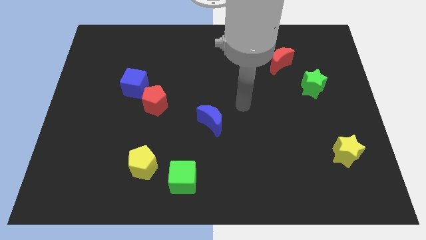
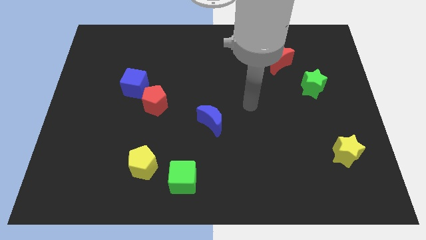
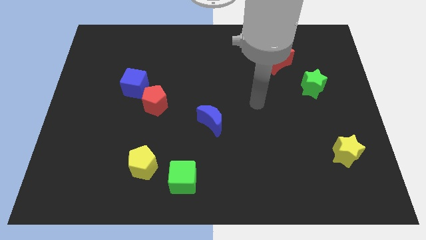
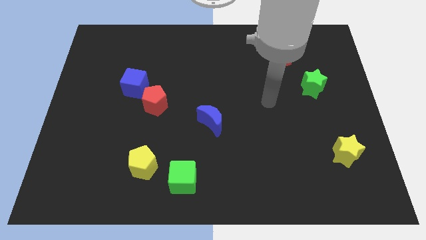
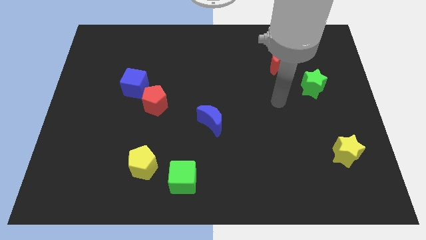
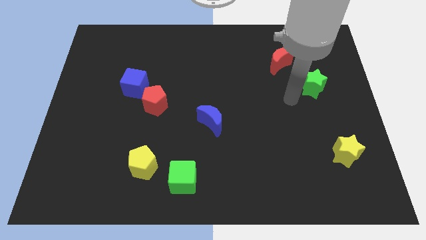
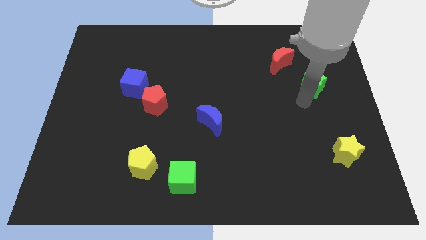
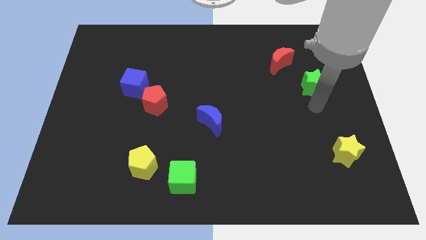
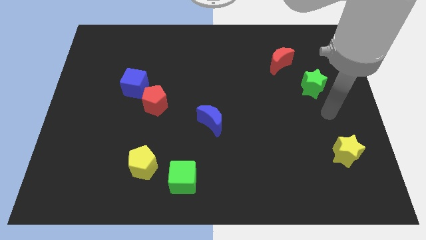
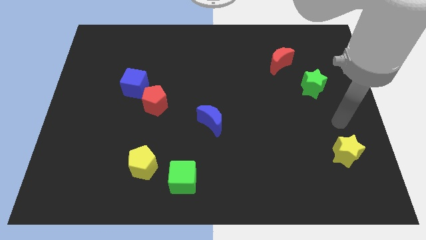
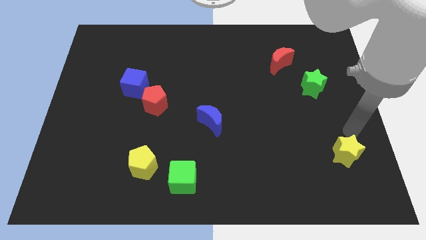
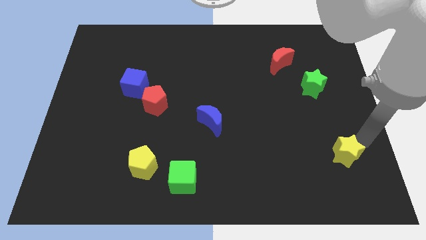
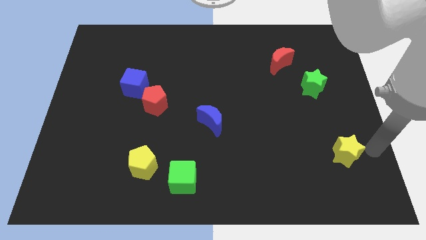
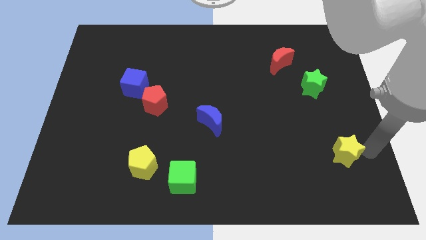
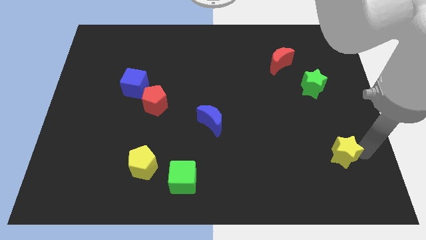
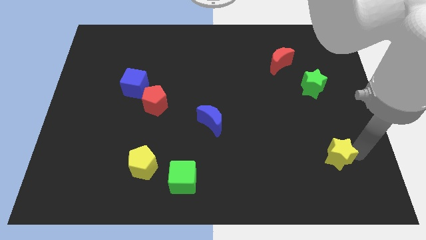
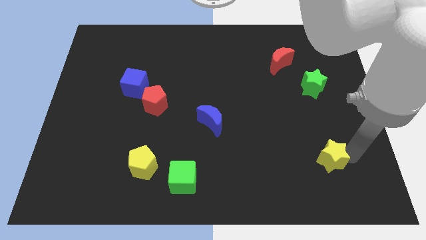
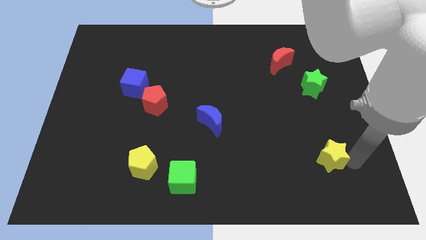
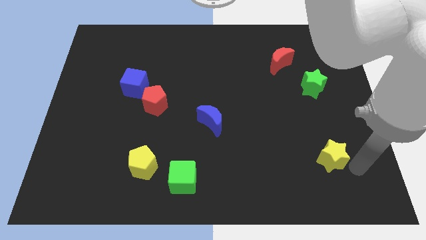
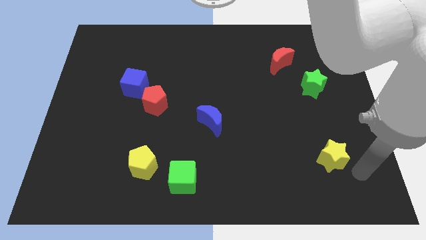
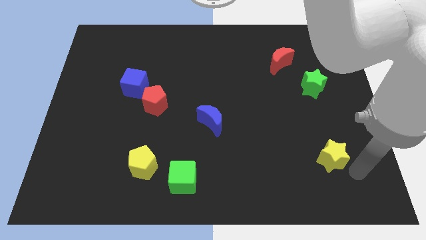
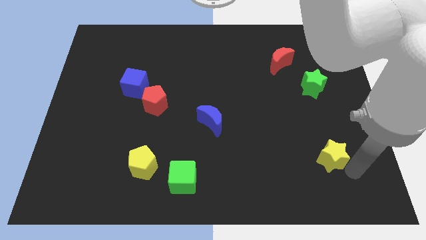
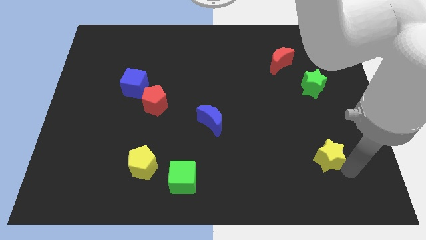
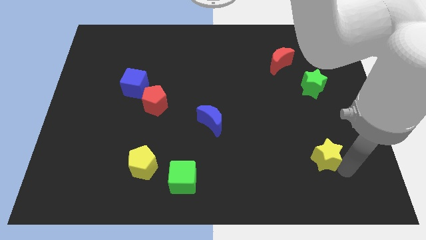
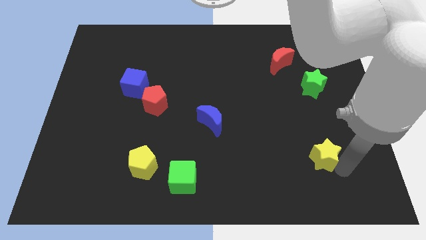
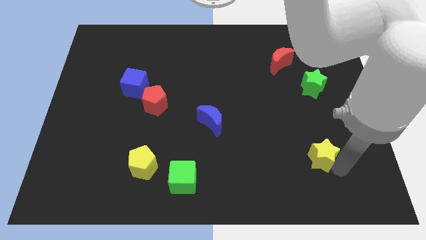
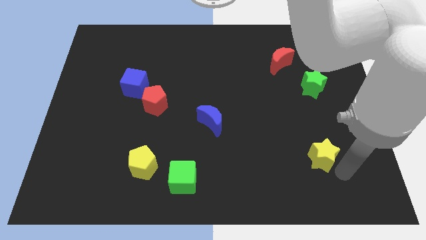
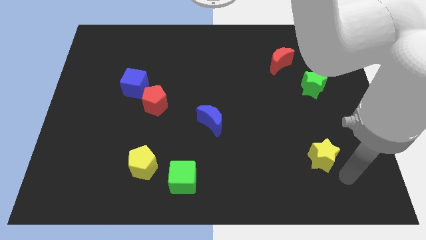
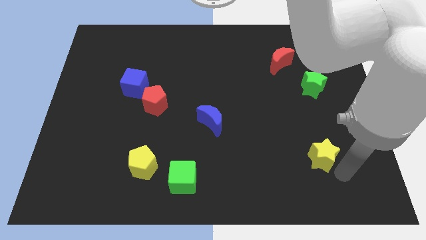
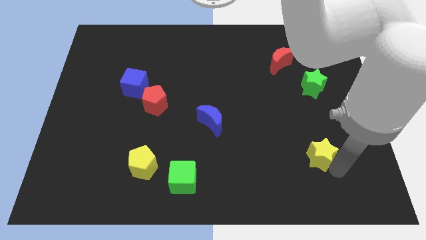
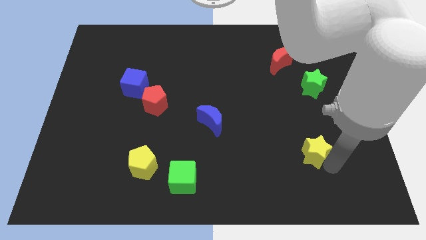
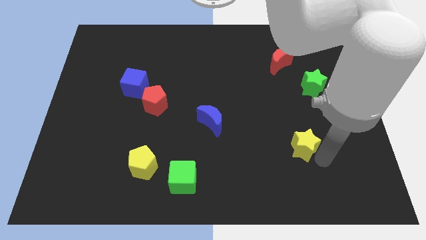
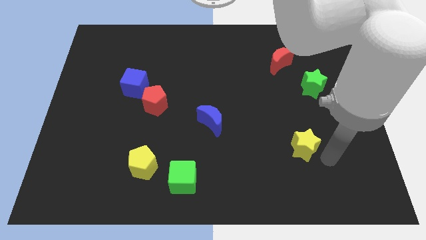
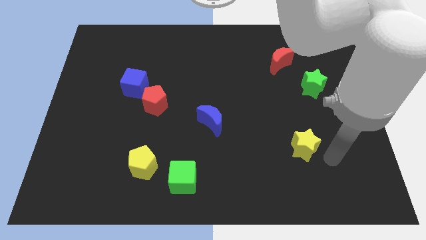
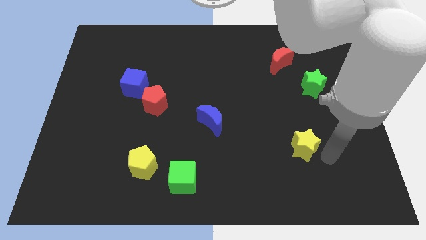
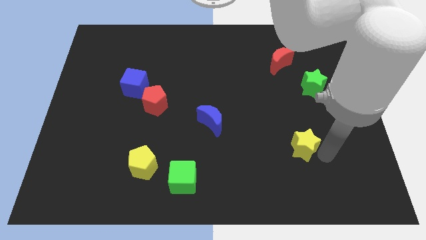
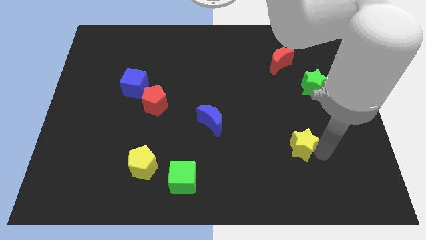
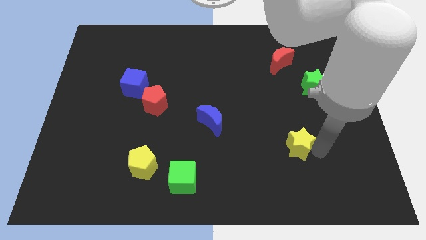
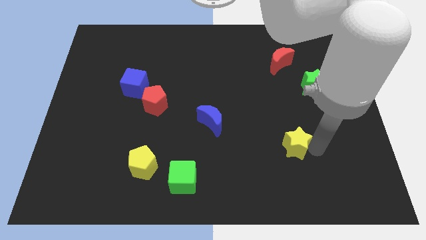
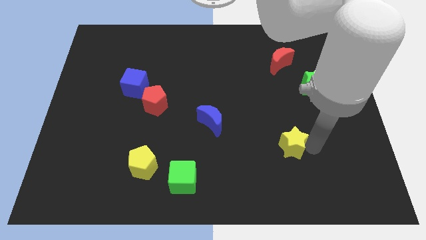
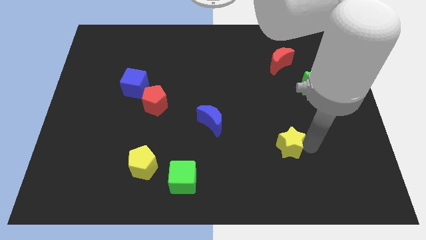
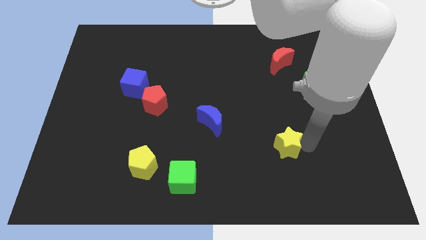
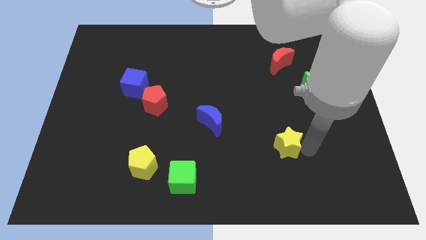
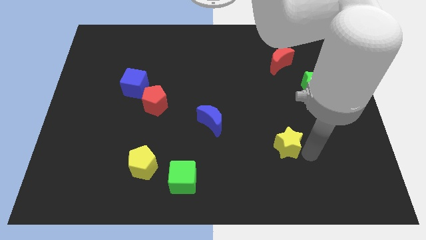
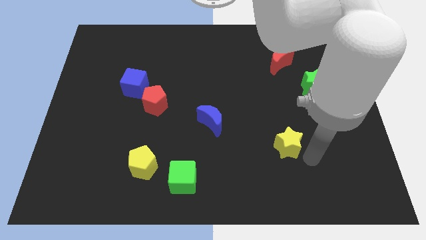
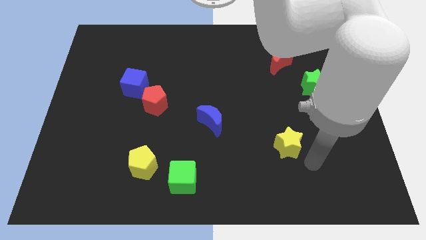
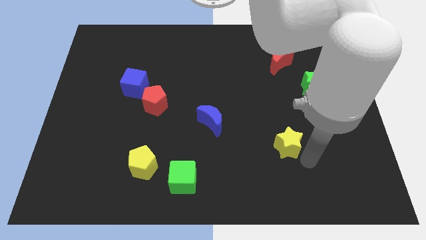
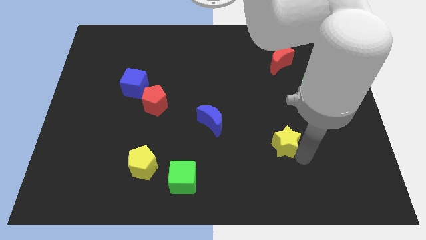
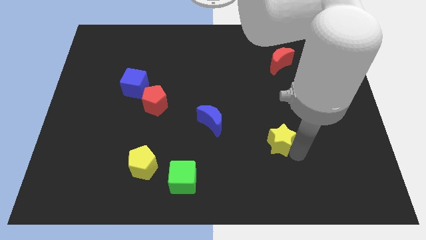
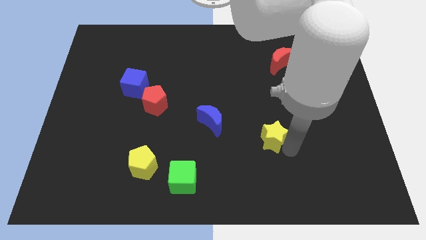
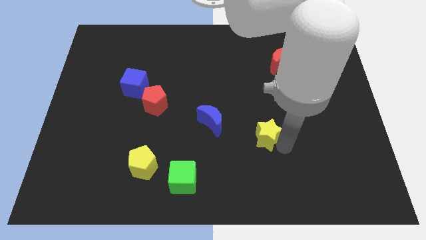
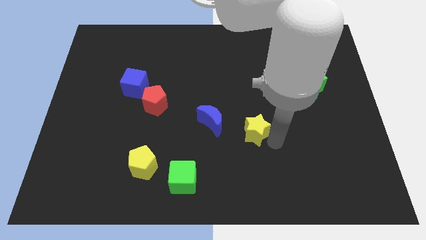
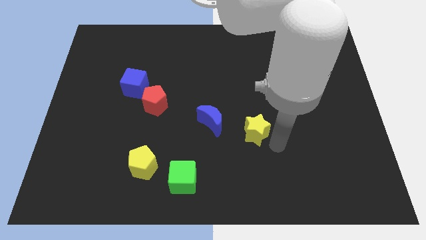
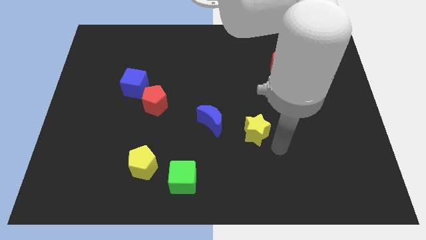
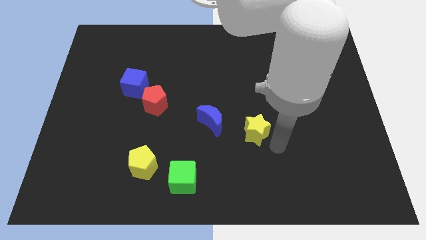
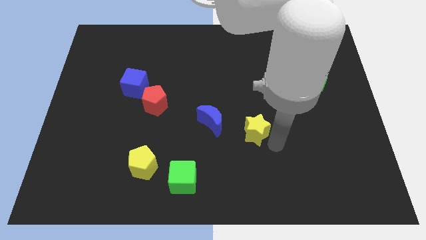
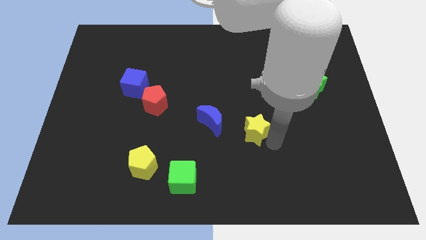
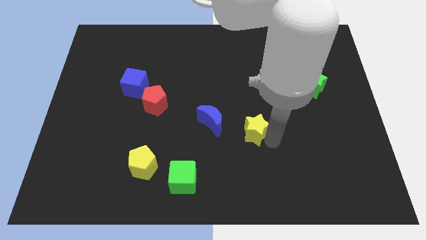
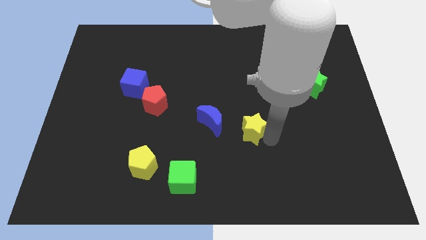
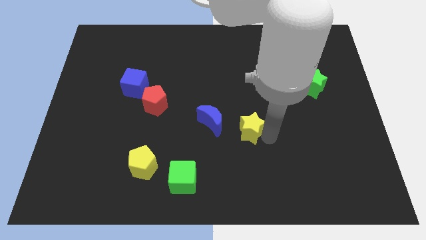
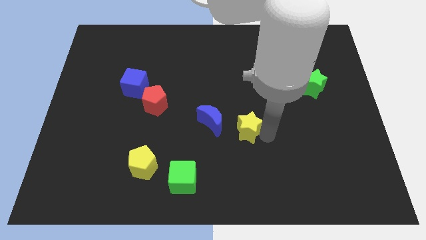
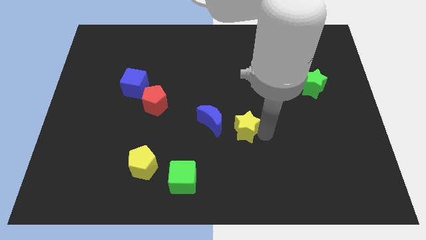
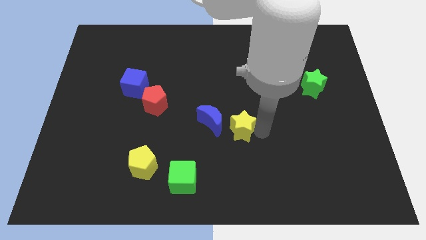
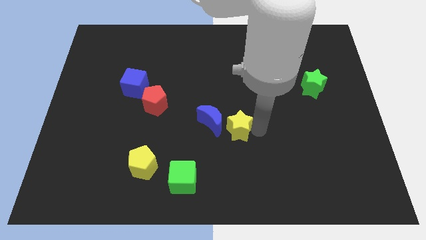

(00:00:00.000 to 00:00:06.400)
push the yellow star to the blue moon

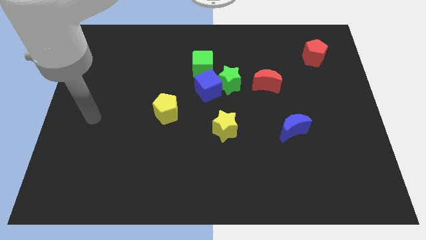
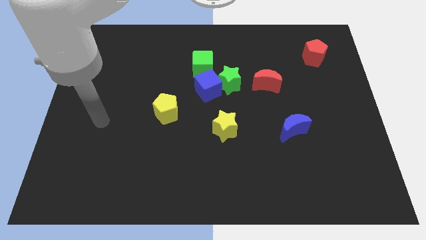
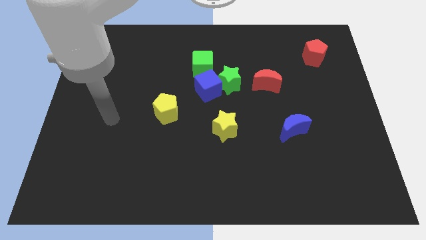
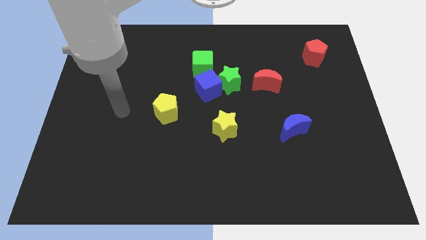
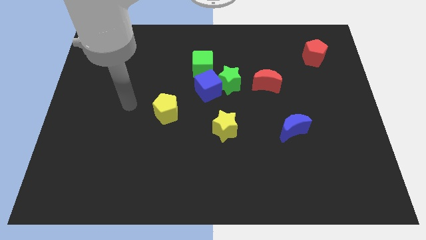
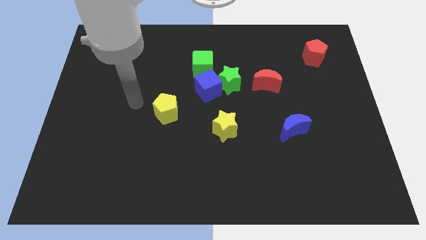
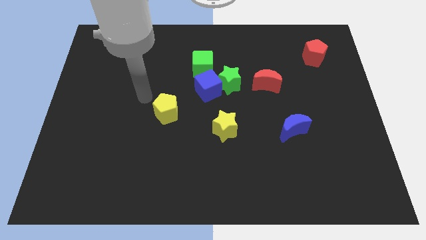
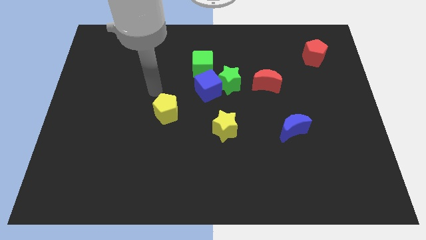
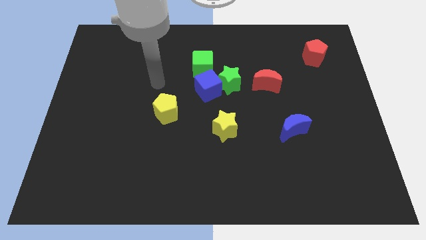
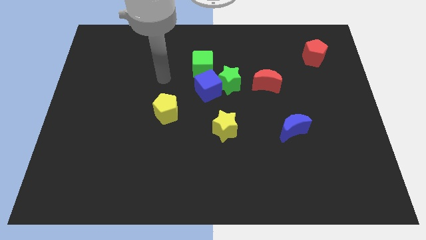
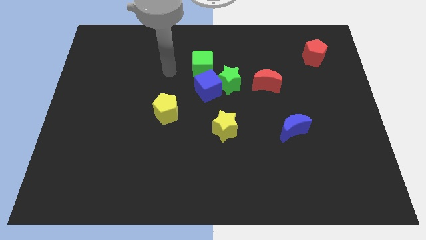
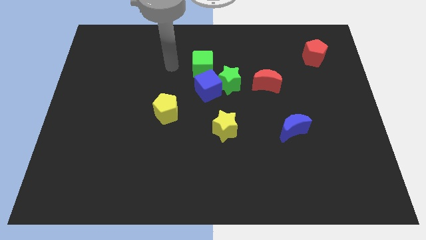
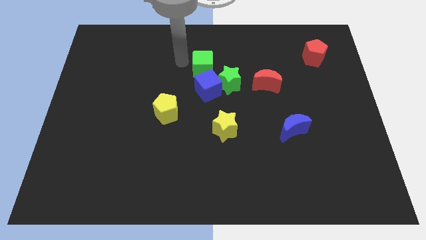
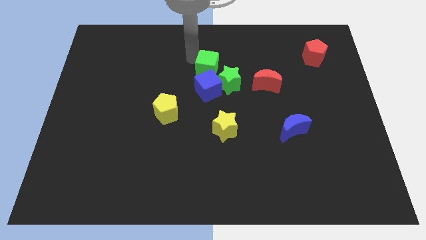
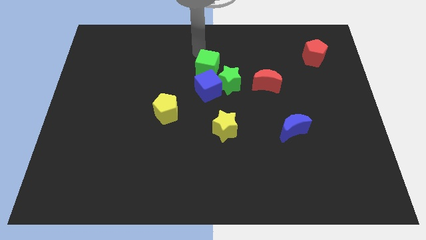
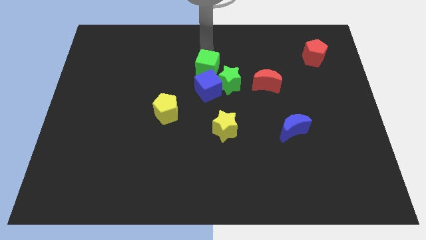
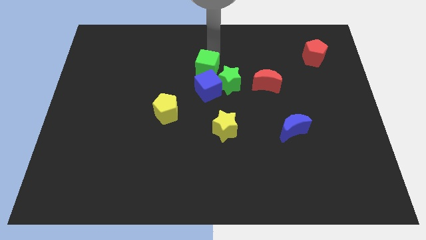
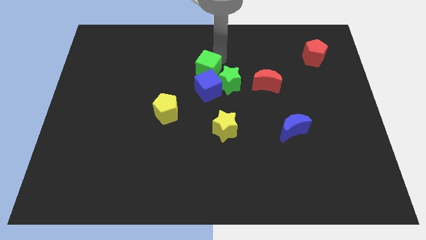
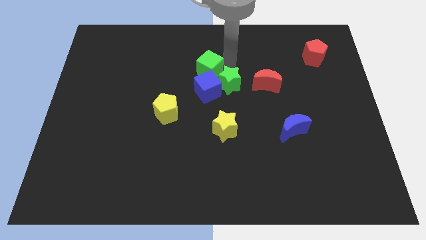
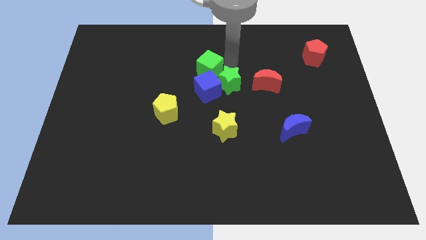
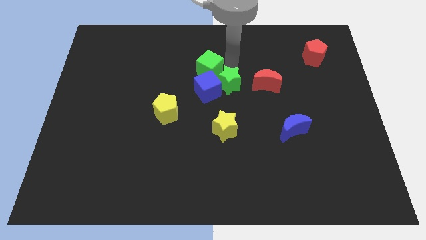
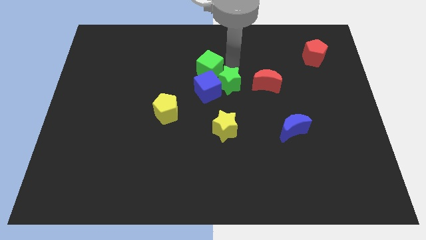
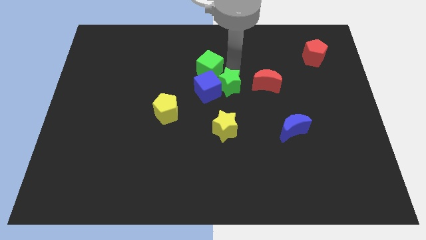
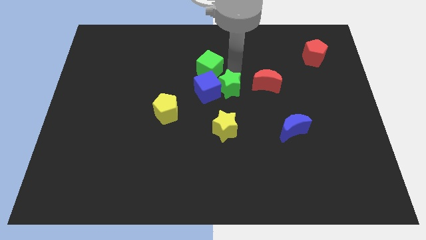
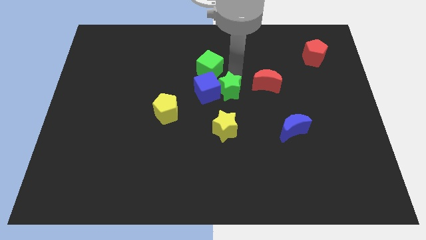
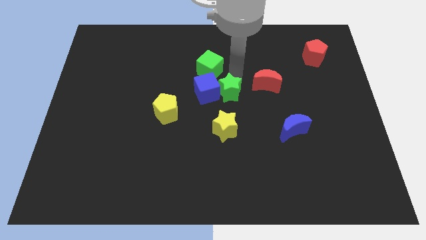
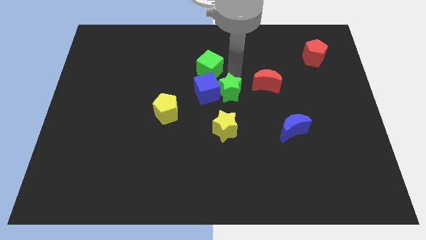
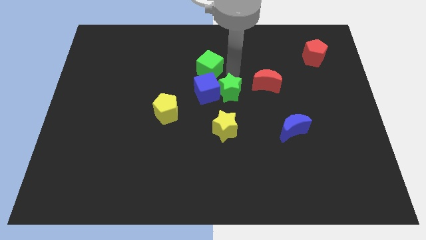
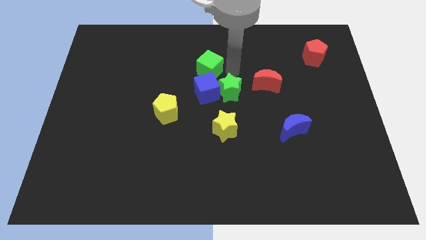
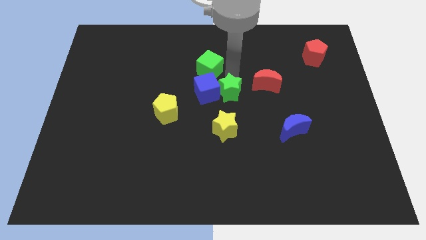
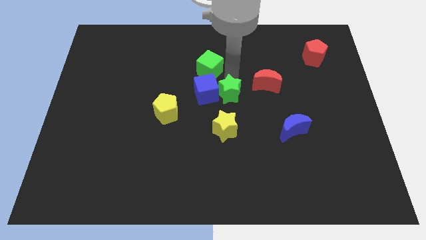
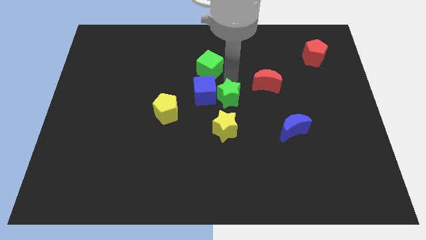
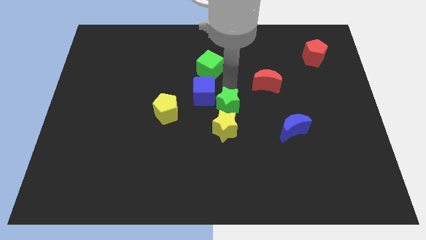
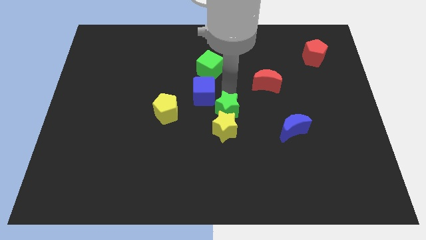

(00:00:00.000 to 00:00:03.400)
slide the green star next to the yellow star
